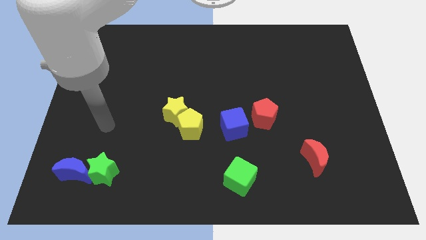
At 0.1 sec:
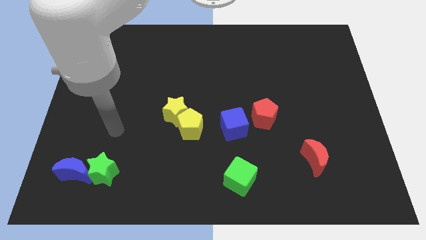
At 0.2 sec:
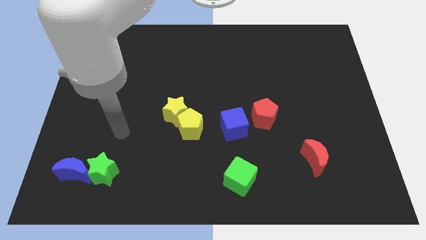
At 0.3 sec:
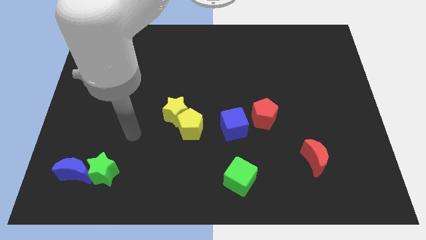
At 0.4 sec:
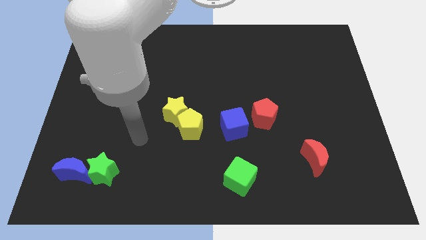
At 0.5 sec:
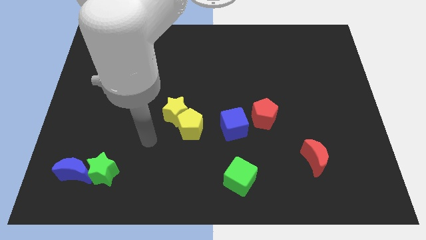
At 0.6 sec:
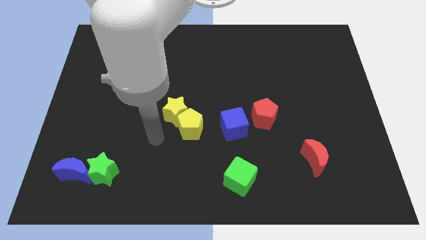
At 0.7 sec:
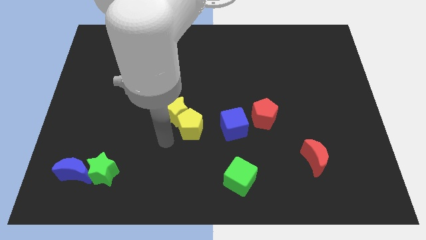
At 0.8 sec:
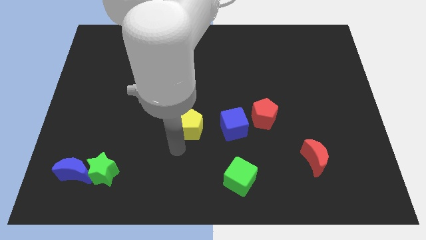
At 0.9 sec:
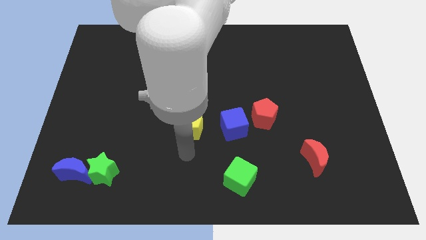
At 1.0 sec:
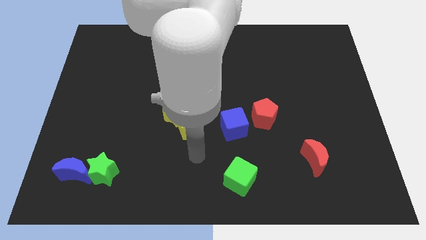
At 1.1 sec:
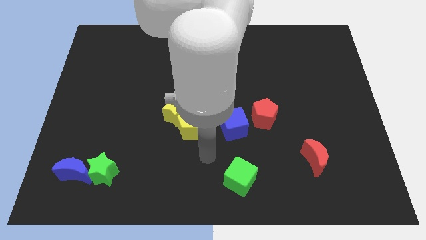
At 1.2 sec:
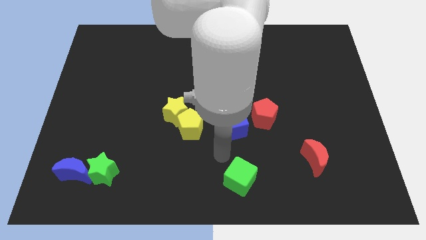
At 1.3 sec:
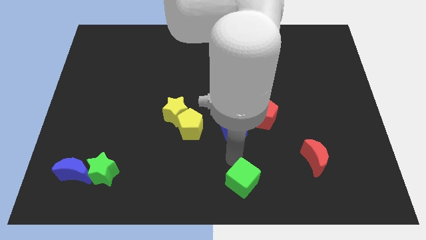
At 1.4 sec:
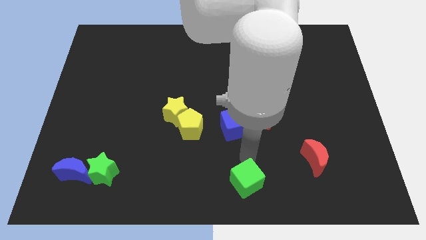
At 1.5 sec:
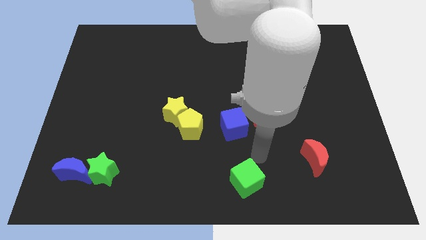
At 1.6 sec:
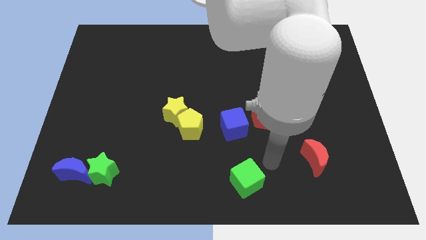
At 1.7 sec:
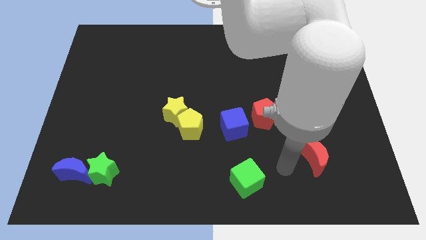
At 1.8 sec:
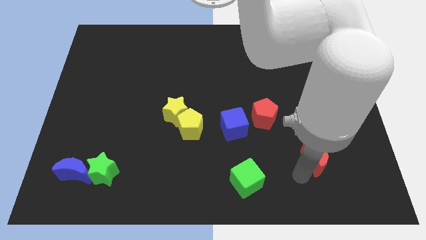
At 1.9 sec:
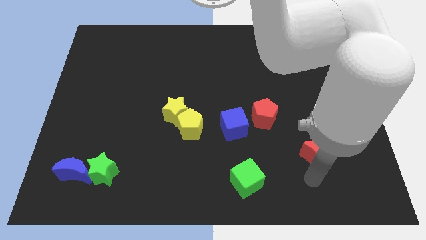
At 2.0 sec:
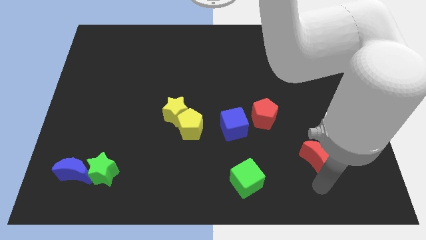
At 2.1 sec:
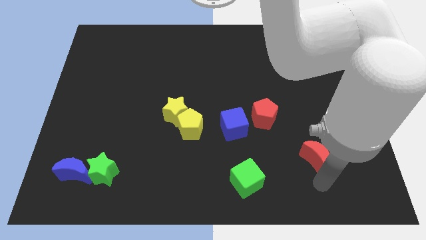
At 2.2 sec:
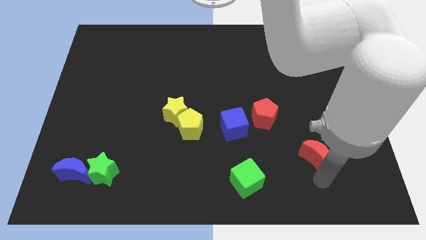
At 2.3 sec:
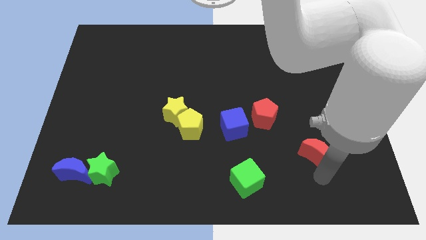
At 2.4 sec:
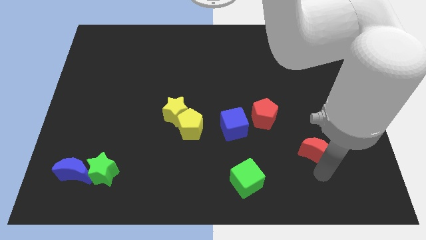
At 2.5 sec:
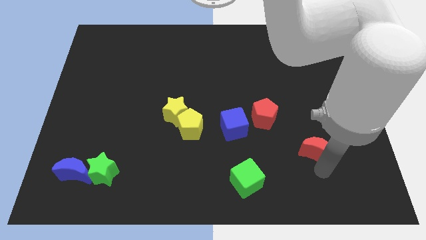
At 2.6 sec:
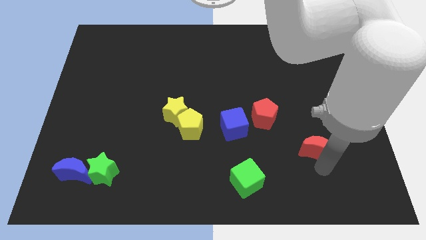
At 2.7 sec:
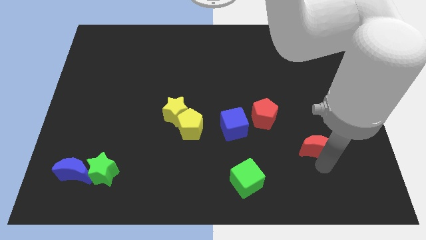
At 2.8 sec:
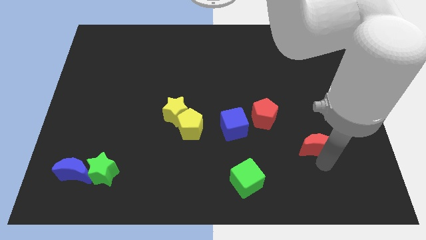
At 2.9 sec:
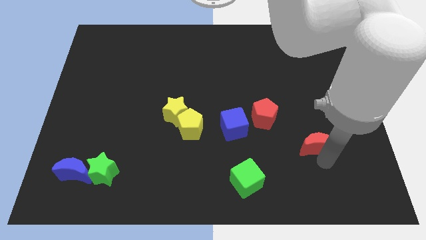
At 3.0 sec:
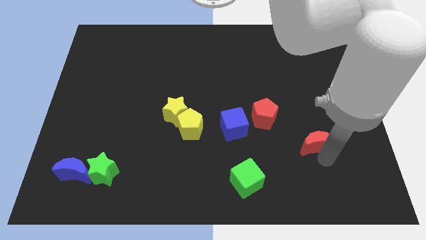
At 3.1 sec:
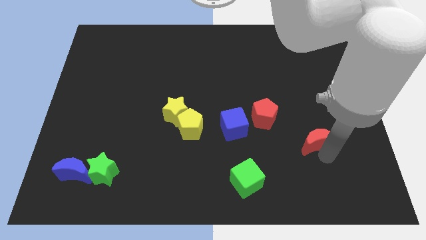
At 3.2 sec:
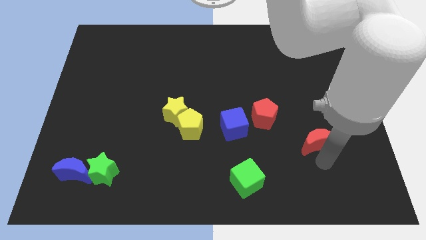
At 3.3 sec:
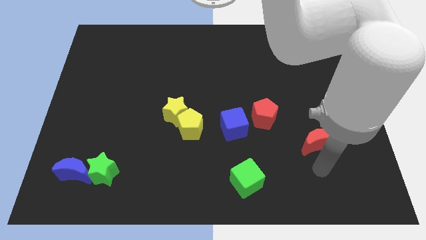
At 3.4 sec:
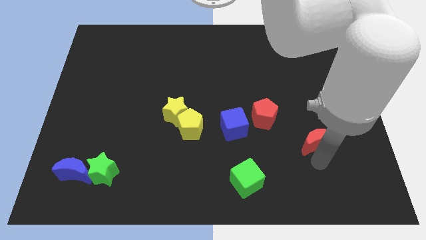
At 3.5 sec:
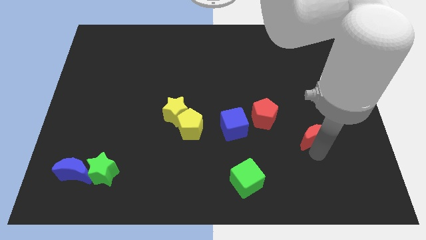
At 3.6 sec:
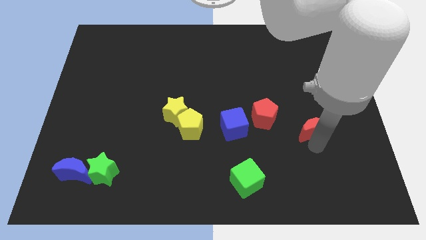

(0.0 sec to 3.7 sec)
push the red moon a bit up

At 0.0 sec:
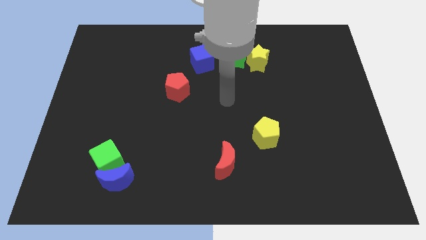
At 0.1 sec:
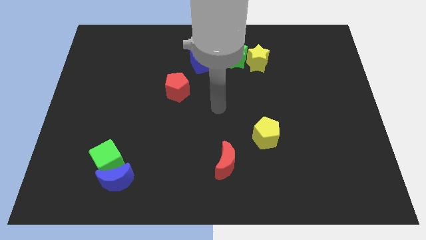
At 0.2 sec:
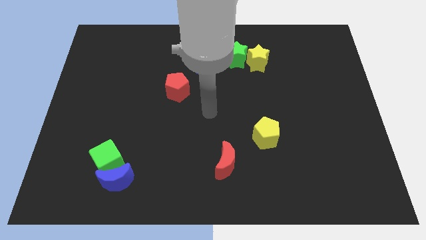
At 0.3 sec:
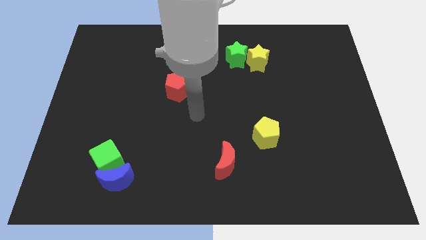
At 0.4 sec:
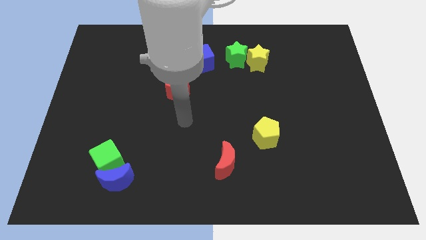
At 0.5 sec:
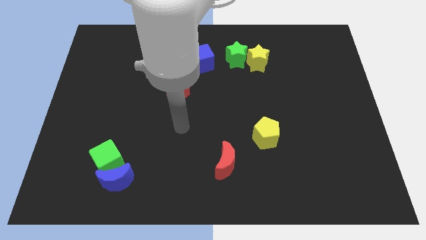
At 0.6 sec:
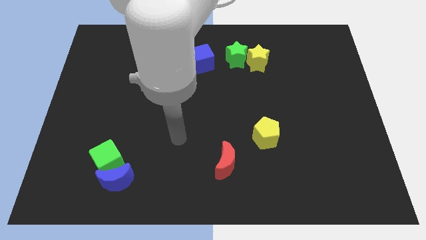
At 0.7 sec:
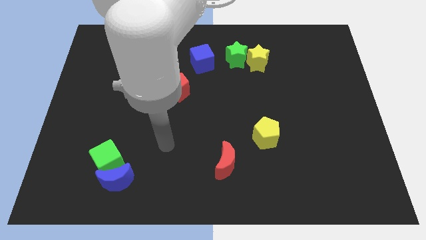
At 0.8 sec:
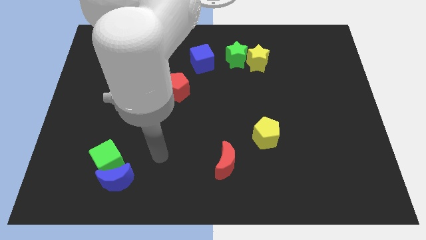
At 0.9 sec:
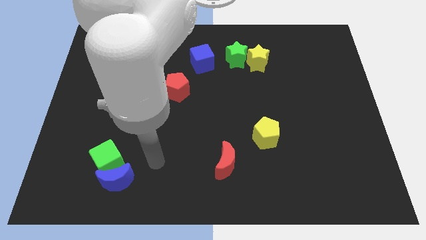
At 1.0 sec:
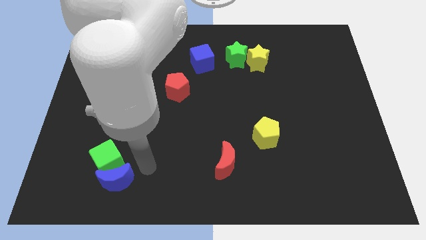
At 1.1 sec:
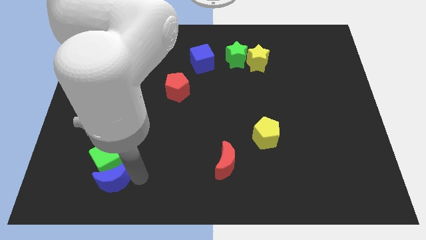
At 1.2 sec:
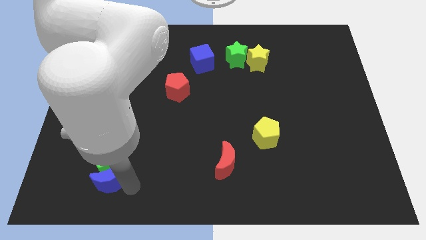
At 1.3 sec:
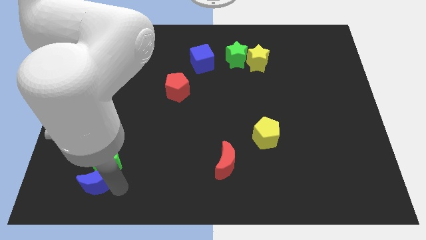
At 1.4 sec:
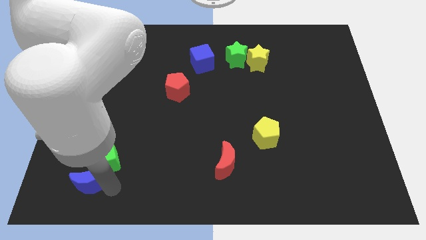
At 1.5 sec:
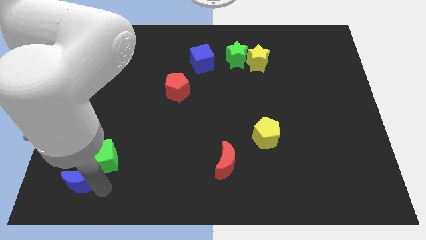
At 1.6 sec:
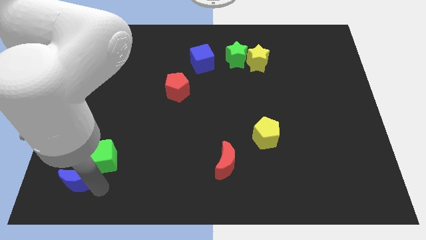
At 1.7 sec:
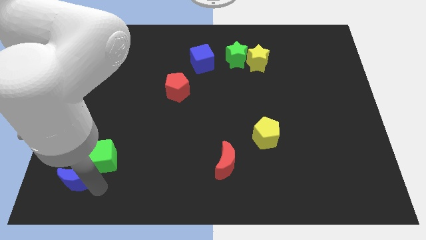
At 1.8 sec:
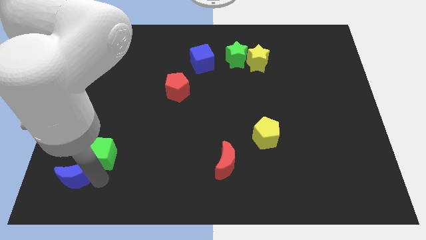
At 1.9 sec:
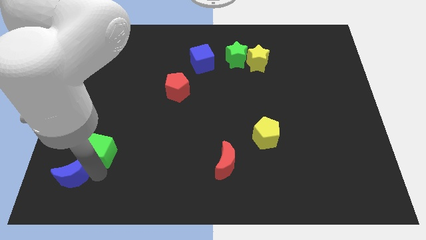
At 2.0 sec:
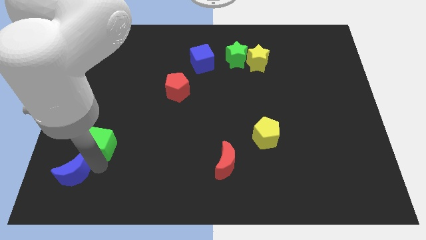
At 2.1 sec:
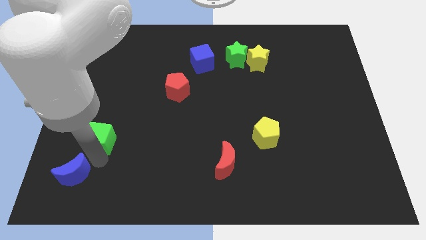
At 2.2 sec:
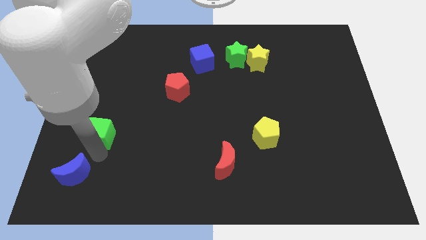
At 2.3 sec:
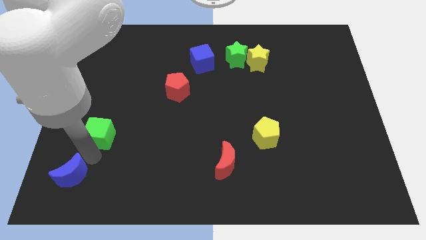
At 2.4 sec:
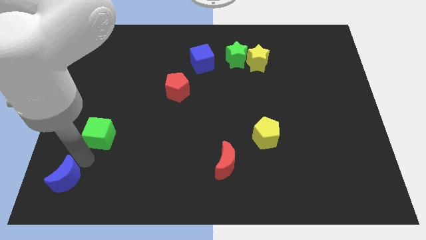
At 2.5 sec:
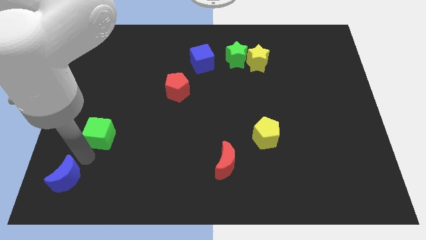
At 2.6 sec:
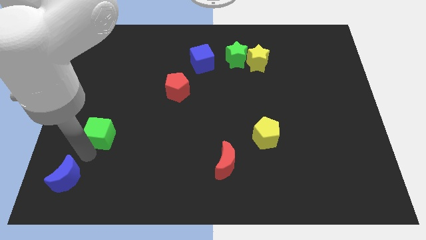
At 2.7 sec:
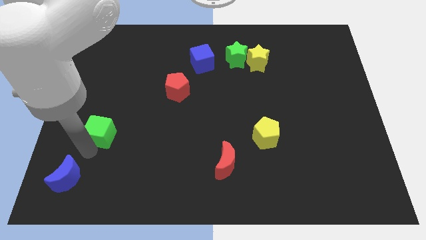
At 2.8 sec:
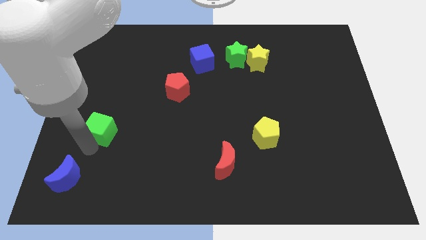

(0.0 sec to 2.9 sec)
move the green cube a little bit upwards

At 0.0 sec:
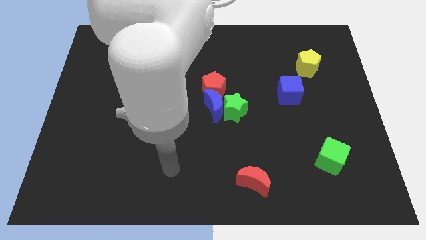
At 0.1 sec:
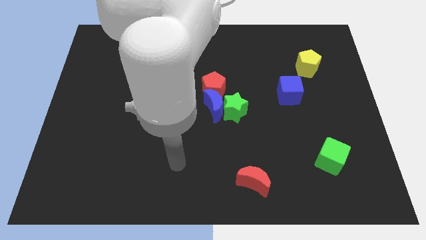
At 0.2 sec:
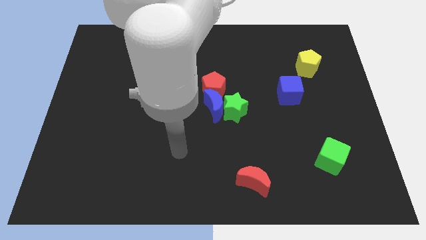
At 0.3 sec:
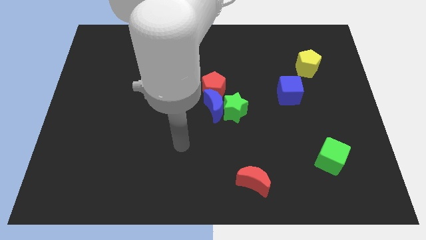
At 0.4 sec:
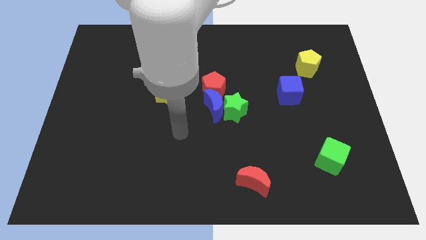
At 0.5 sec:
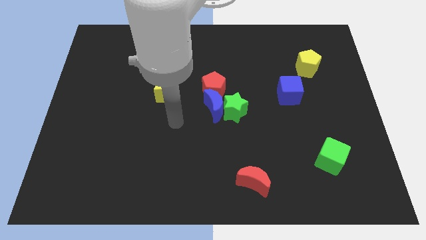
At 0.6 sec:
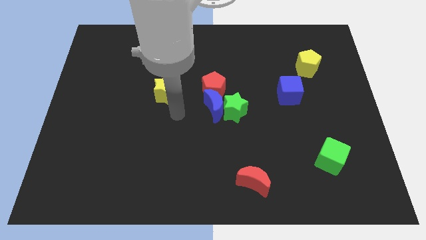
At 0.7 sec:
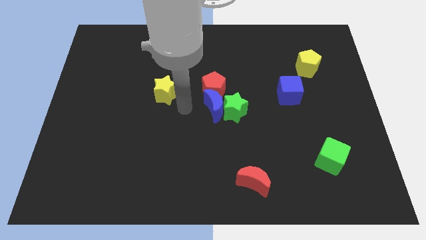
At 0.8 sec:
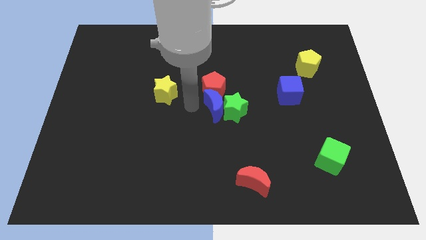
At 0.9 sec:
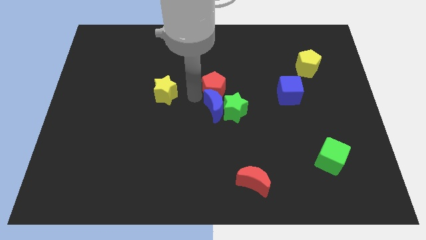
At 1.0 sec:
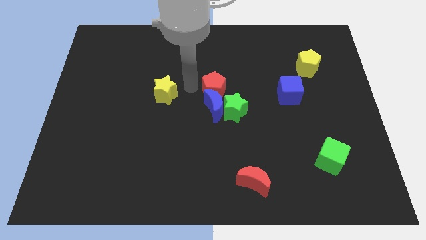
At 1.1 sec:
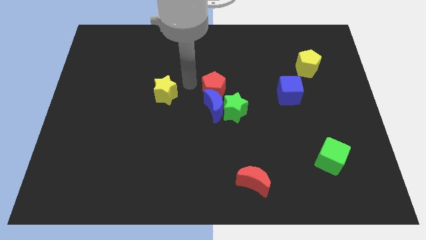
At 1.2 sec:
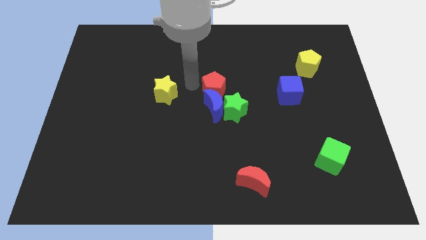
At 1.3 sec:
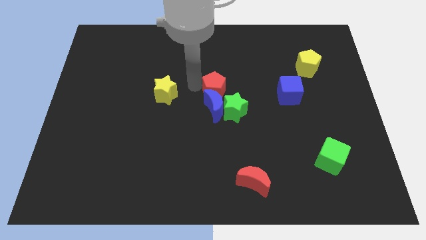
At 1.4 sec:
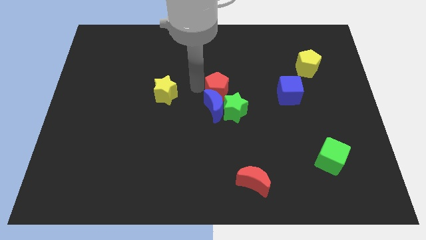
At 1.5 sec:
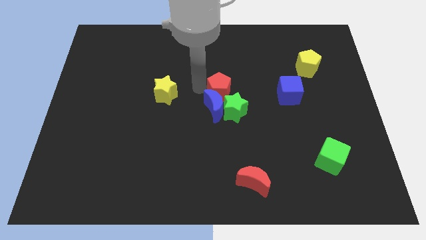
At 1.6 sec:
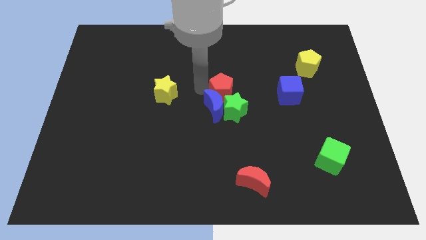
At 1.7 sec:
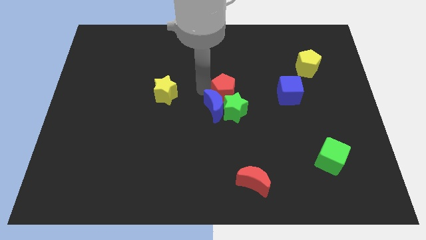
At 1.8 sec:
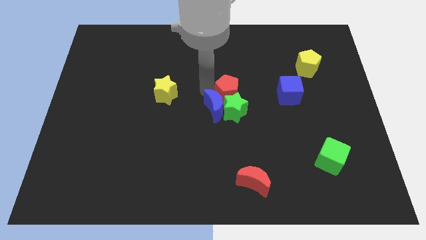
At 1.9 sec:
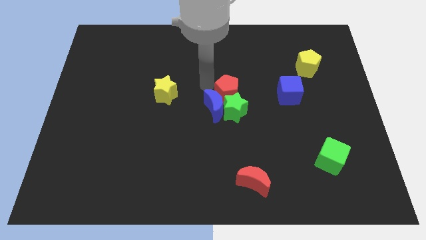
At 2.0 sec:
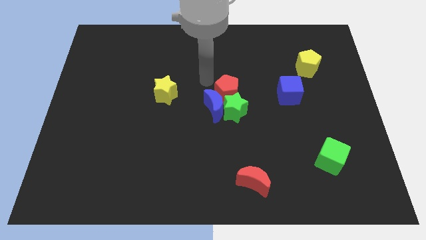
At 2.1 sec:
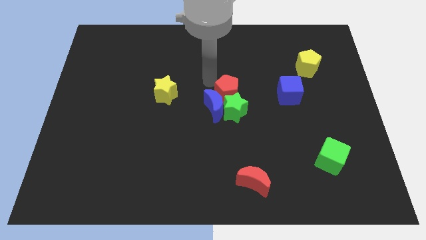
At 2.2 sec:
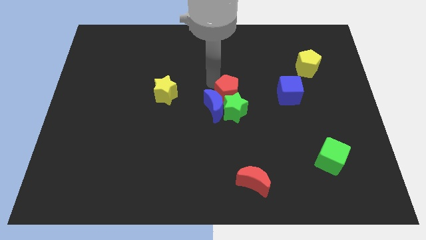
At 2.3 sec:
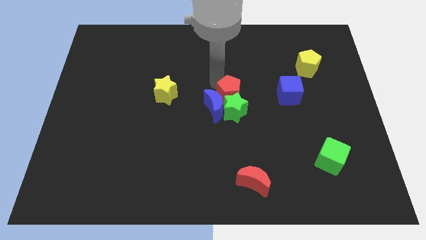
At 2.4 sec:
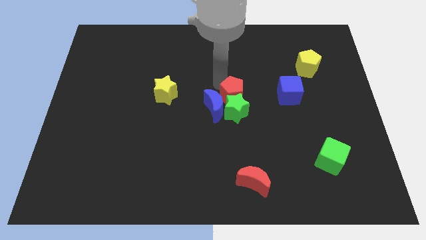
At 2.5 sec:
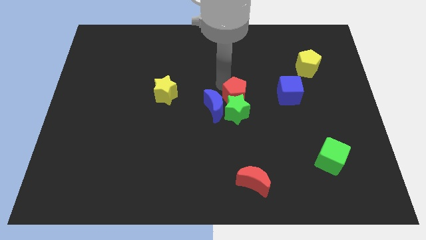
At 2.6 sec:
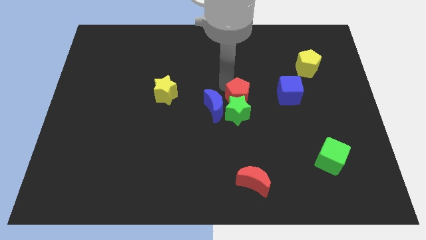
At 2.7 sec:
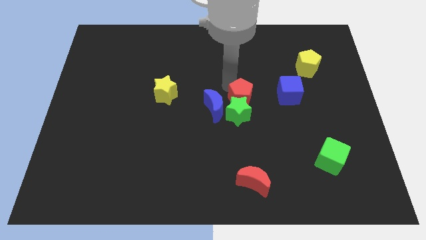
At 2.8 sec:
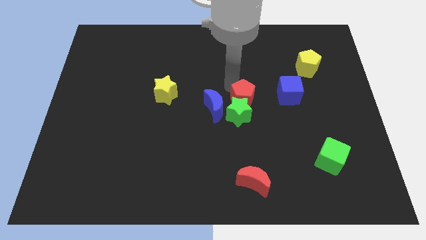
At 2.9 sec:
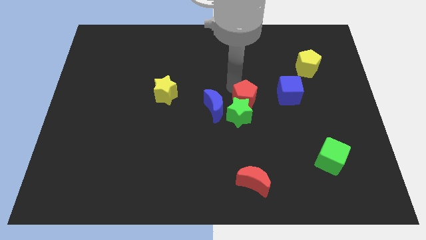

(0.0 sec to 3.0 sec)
push the red pentagon down and right diagonally a bit
